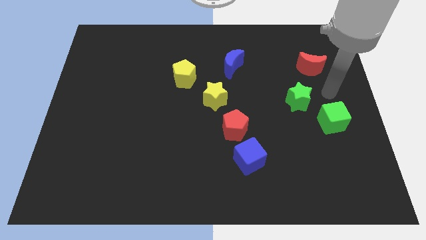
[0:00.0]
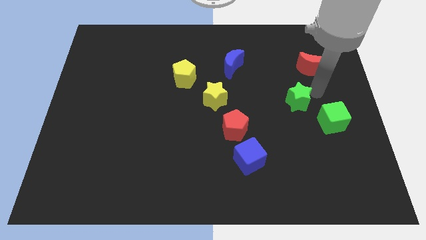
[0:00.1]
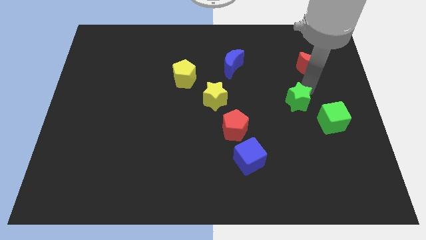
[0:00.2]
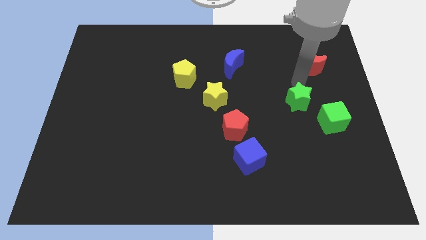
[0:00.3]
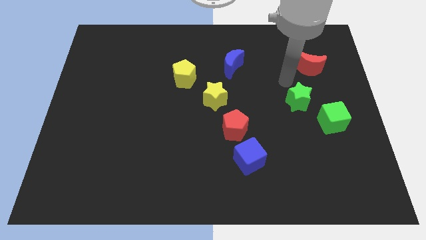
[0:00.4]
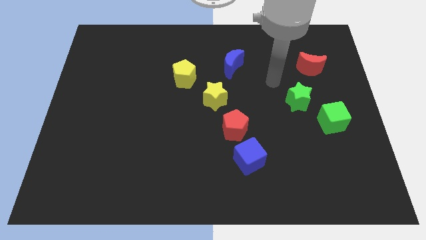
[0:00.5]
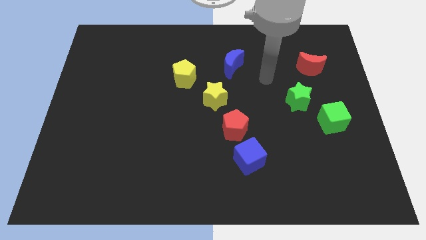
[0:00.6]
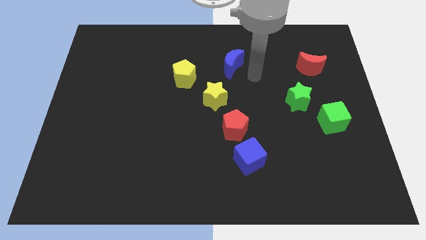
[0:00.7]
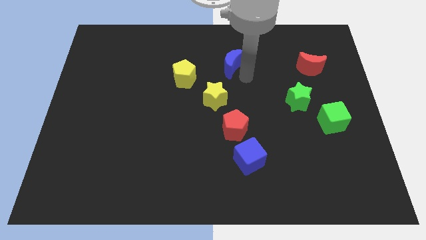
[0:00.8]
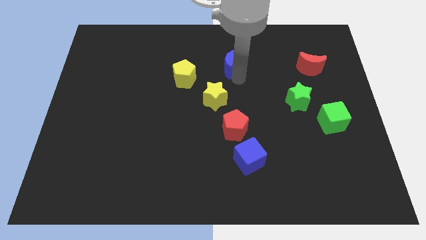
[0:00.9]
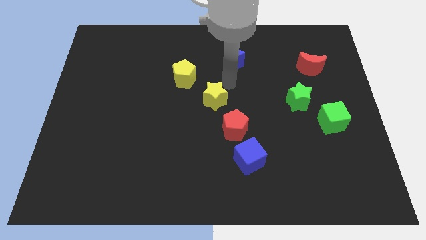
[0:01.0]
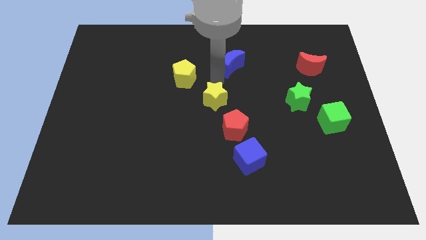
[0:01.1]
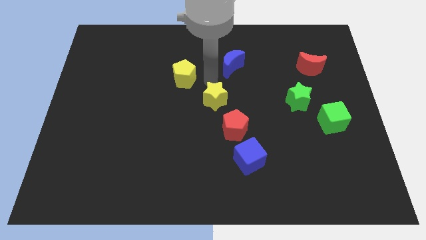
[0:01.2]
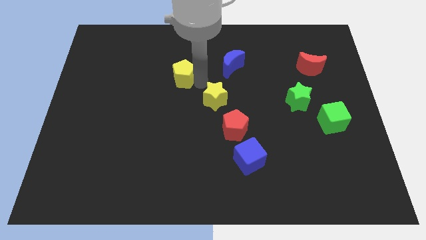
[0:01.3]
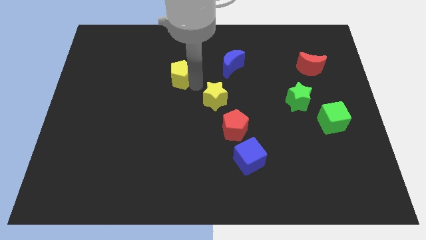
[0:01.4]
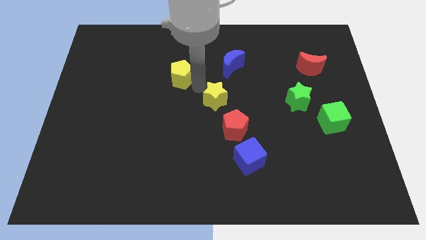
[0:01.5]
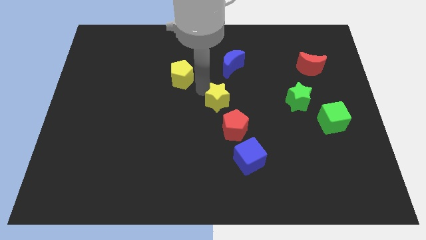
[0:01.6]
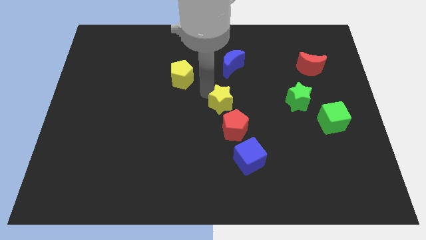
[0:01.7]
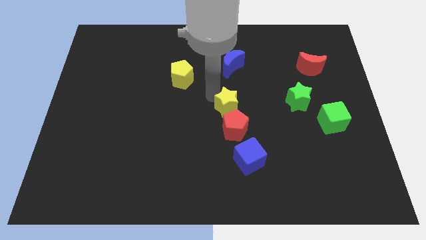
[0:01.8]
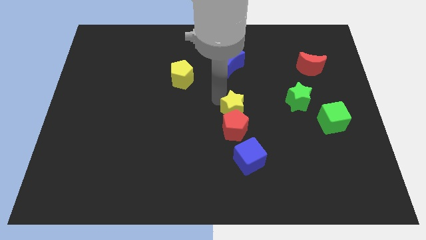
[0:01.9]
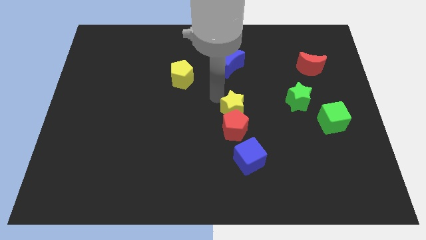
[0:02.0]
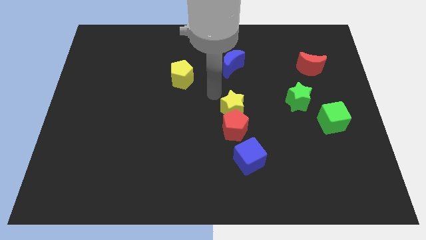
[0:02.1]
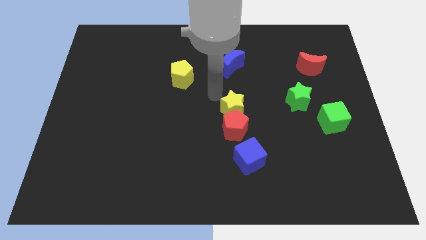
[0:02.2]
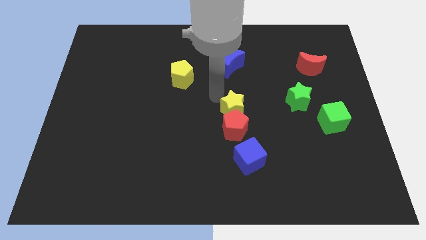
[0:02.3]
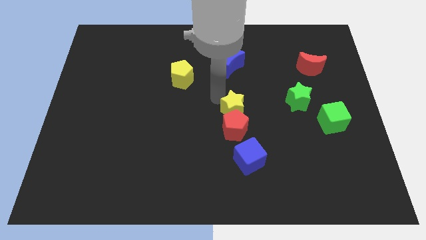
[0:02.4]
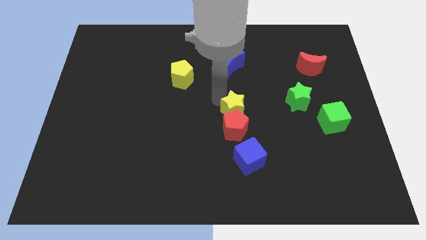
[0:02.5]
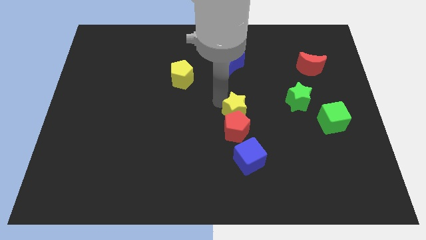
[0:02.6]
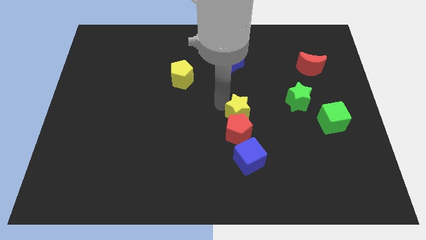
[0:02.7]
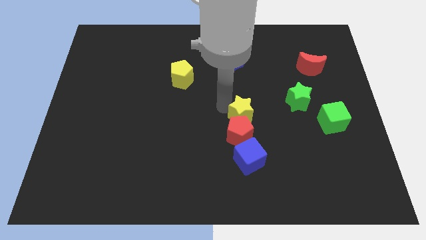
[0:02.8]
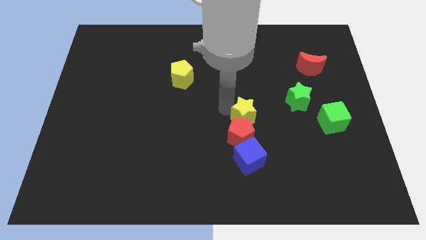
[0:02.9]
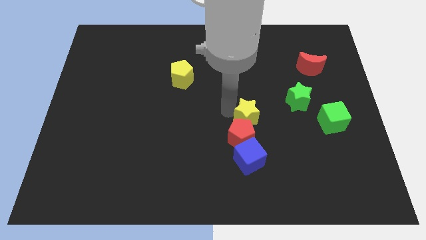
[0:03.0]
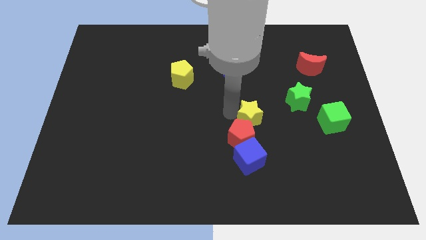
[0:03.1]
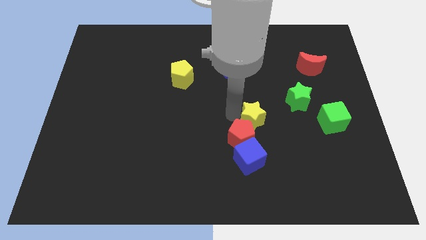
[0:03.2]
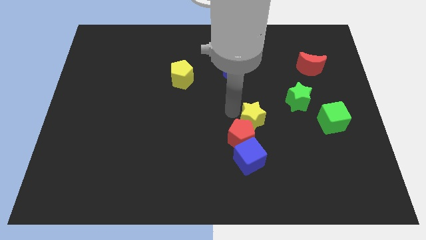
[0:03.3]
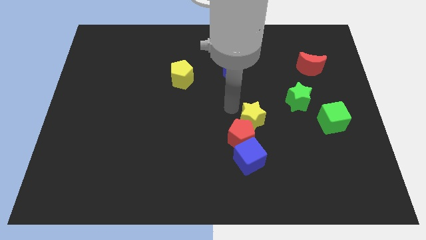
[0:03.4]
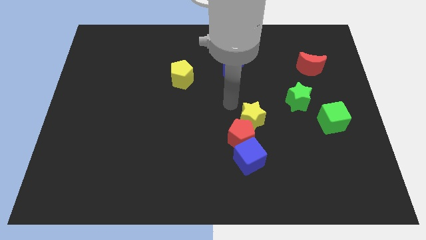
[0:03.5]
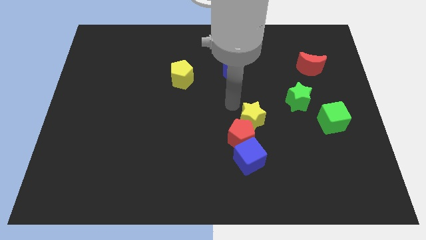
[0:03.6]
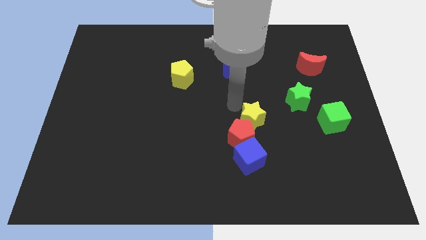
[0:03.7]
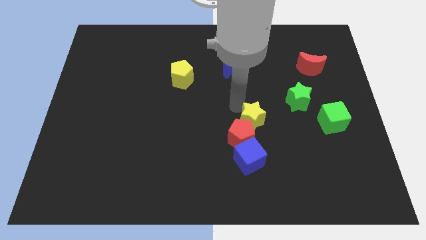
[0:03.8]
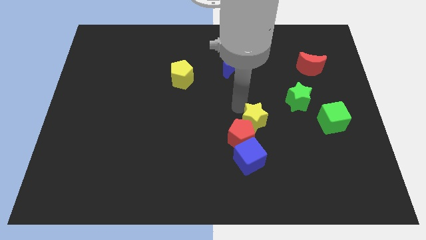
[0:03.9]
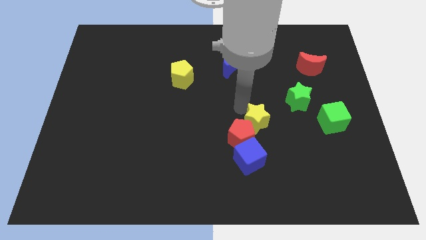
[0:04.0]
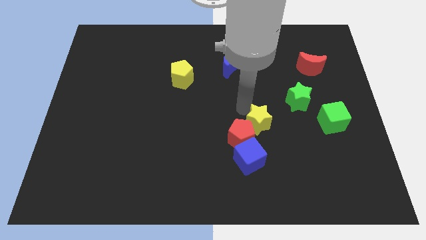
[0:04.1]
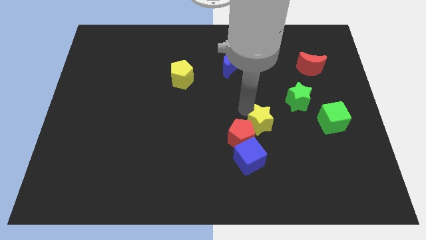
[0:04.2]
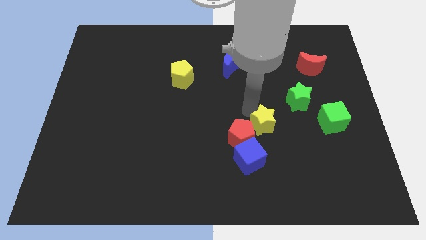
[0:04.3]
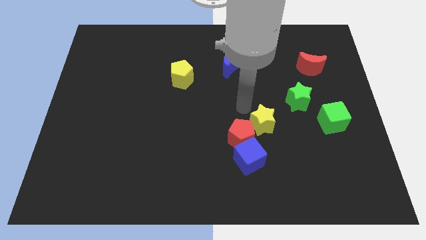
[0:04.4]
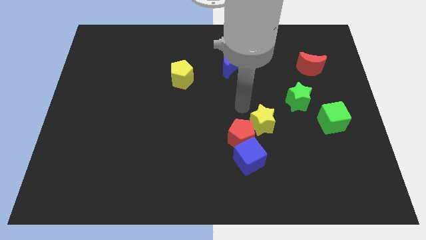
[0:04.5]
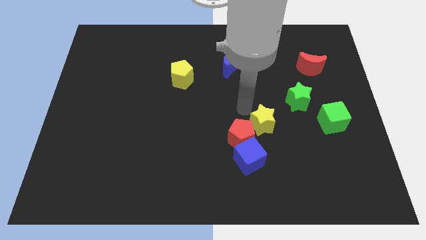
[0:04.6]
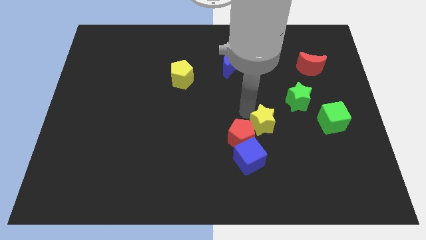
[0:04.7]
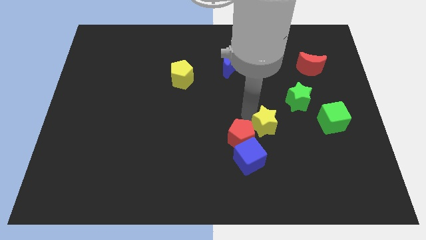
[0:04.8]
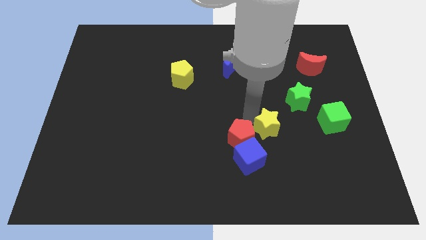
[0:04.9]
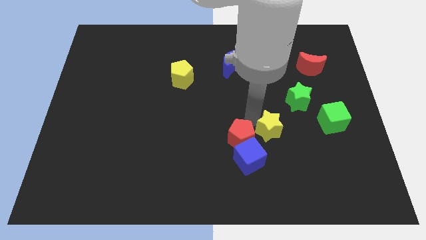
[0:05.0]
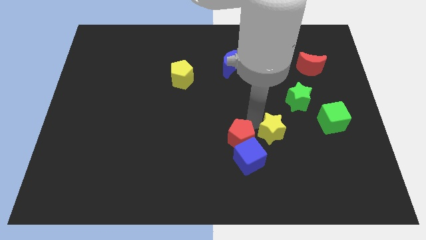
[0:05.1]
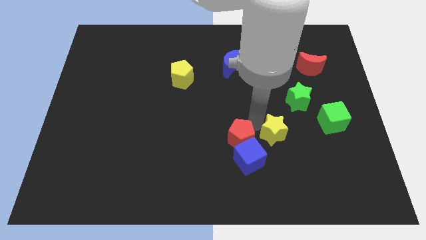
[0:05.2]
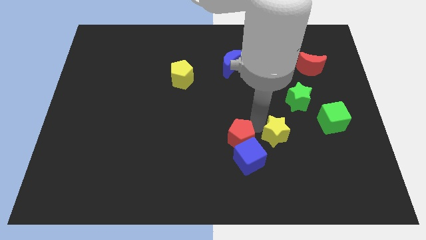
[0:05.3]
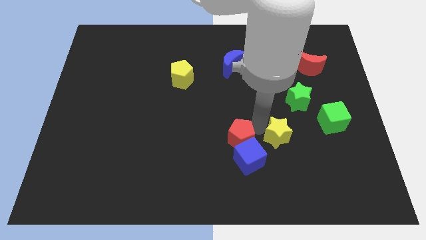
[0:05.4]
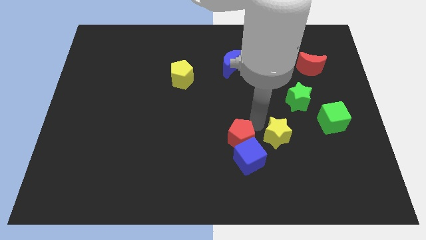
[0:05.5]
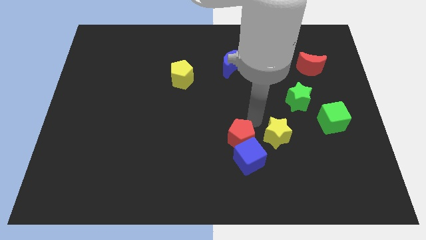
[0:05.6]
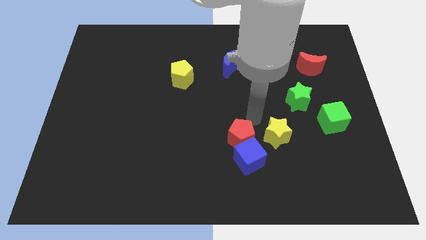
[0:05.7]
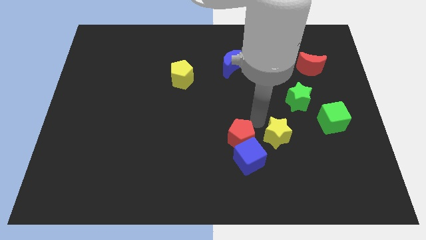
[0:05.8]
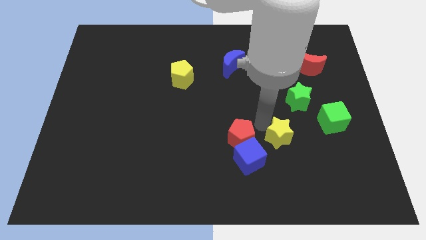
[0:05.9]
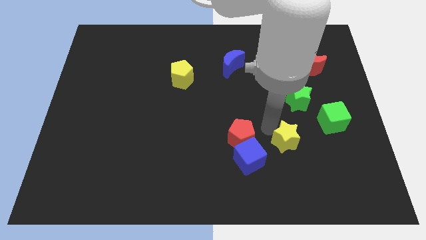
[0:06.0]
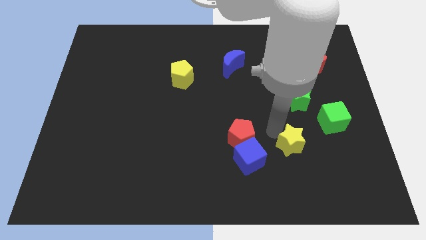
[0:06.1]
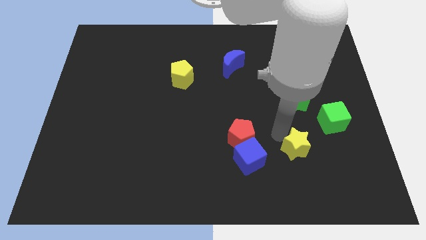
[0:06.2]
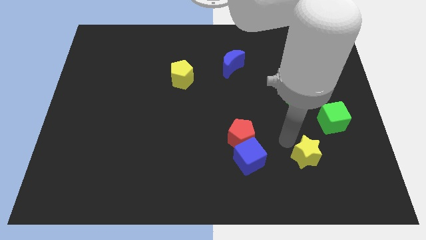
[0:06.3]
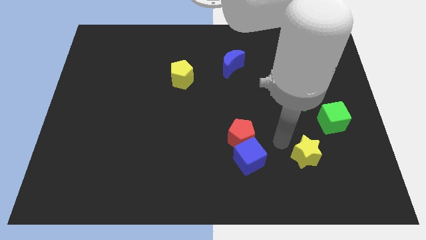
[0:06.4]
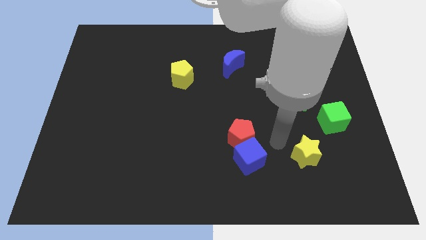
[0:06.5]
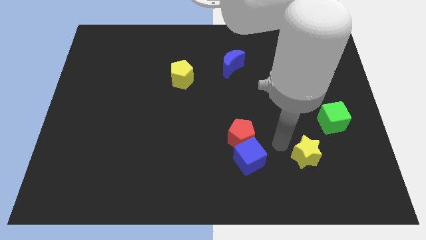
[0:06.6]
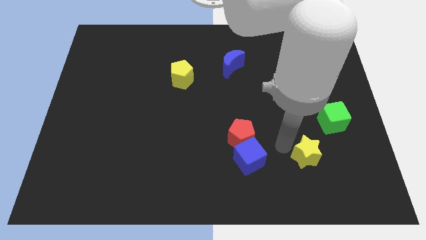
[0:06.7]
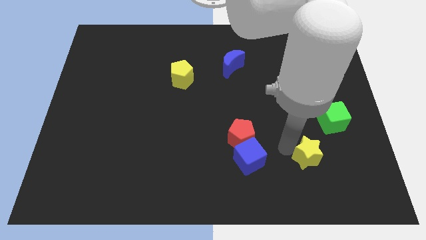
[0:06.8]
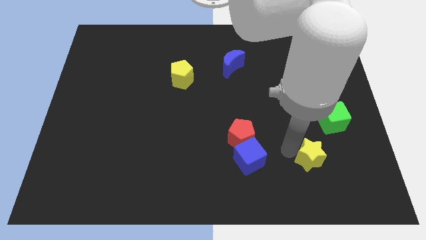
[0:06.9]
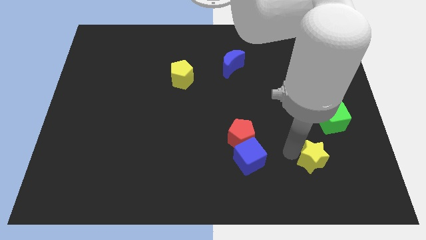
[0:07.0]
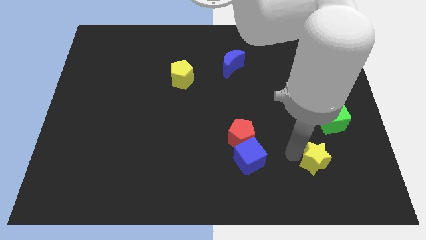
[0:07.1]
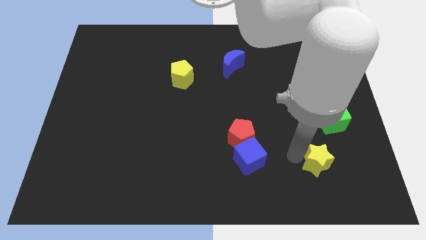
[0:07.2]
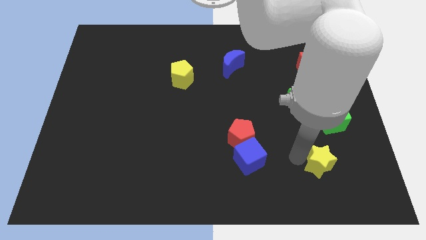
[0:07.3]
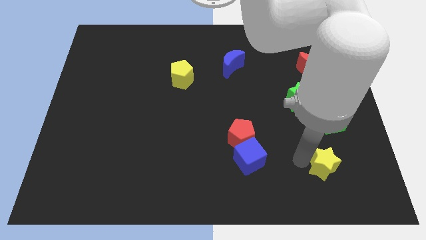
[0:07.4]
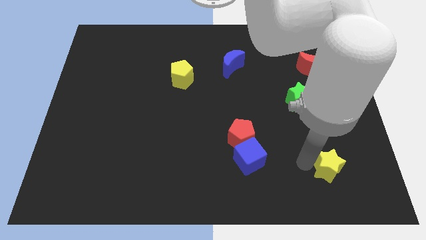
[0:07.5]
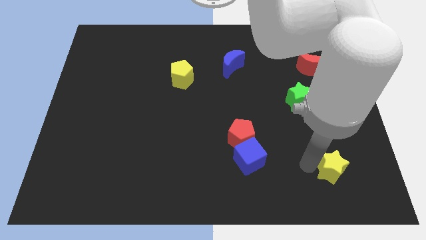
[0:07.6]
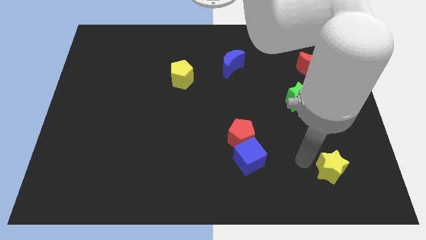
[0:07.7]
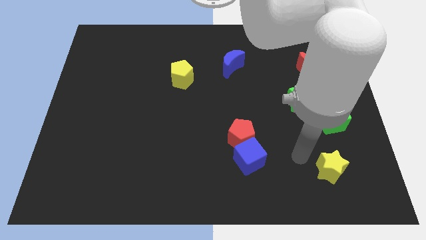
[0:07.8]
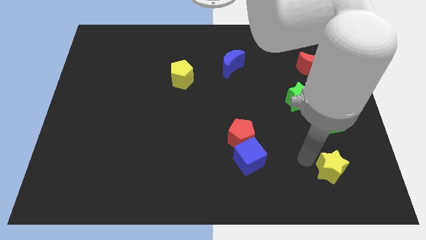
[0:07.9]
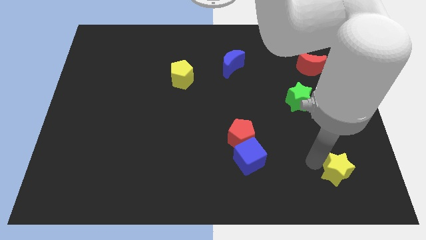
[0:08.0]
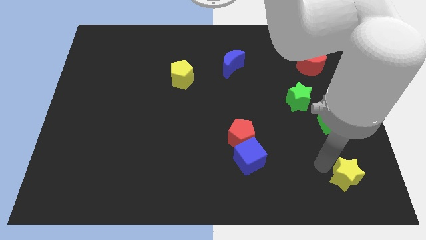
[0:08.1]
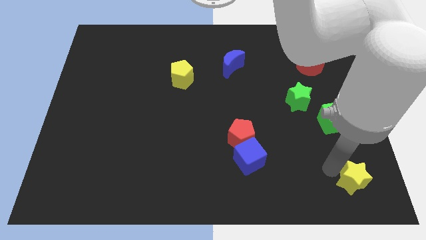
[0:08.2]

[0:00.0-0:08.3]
put the yellow star to the bottom right
